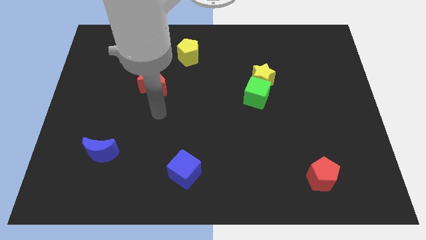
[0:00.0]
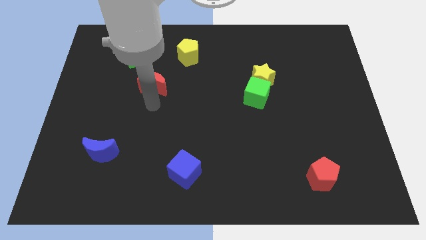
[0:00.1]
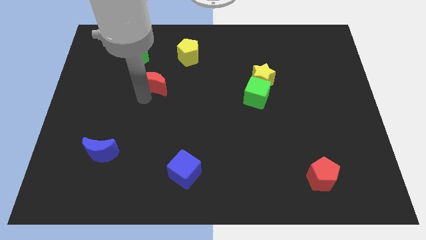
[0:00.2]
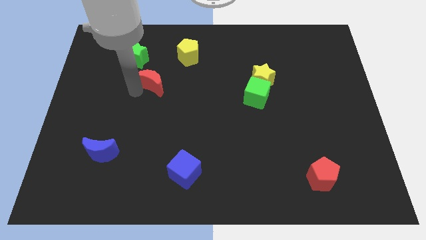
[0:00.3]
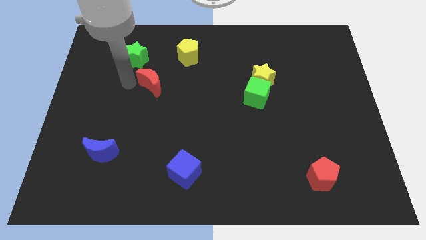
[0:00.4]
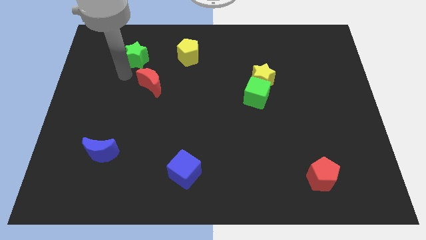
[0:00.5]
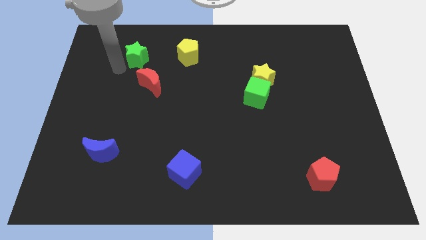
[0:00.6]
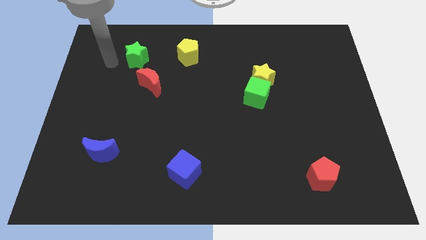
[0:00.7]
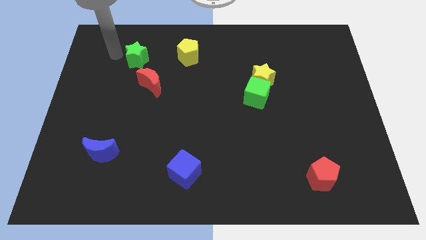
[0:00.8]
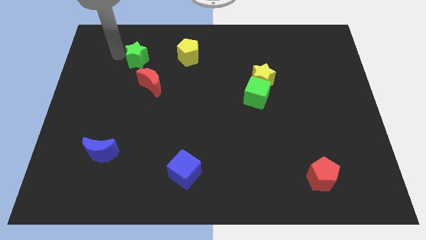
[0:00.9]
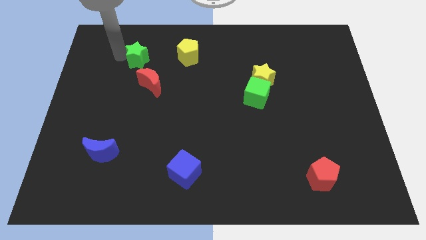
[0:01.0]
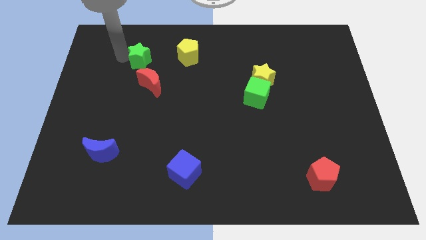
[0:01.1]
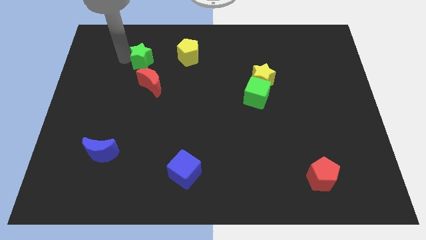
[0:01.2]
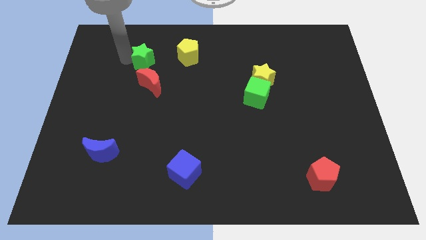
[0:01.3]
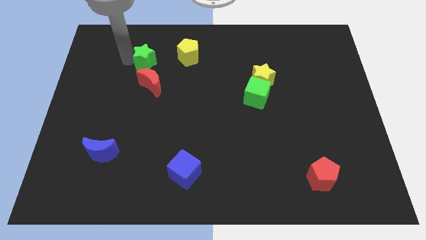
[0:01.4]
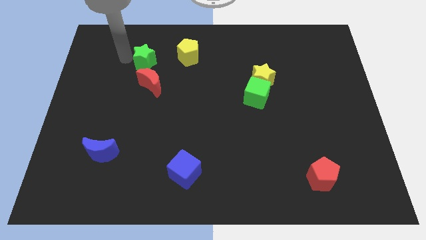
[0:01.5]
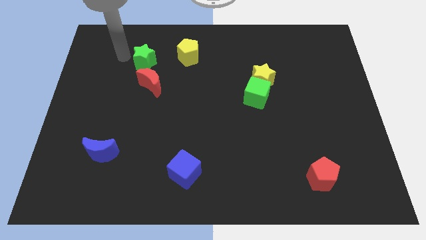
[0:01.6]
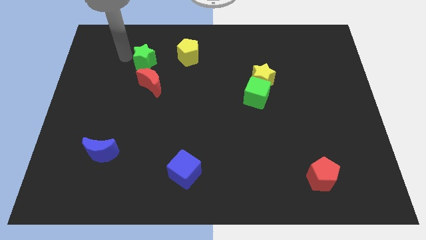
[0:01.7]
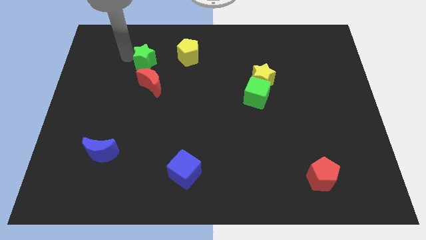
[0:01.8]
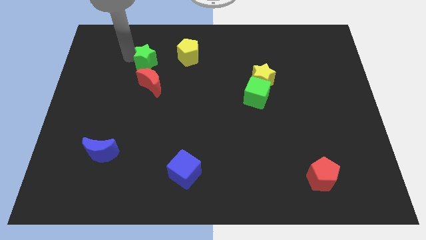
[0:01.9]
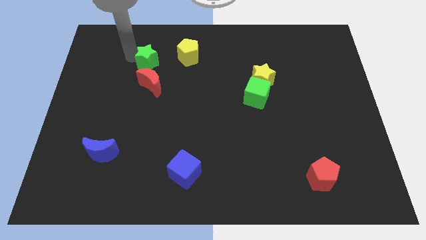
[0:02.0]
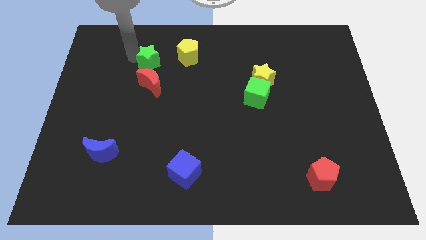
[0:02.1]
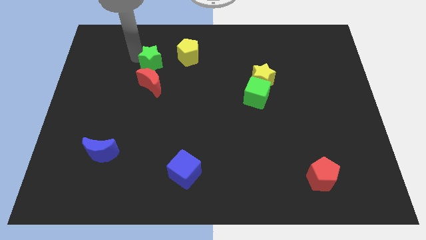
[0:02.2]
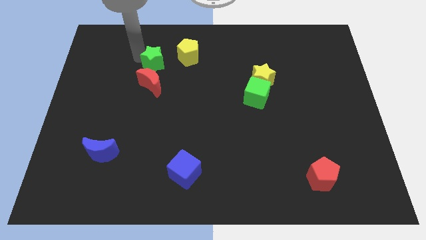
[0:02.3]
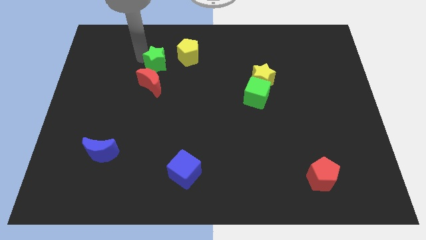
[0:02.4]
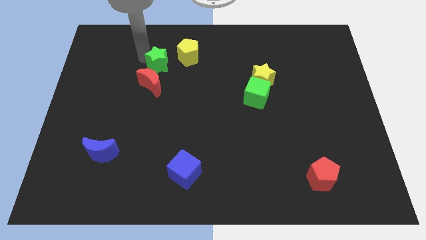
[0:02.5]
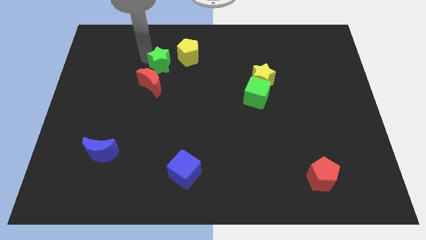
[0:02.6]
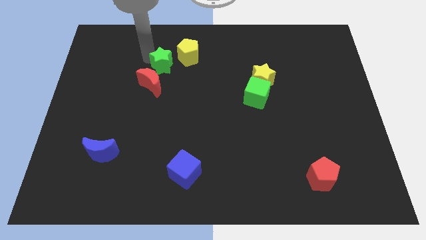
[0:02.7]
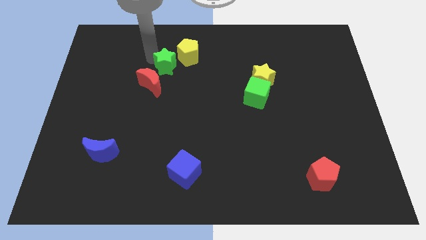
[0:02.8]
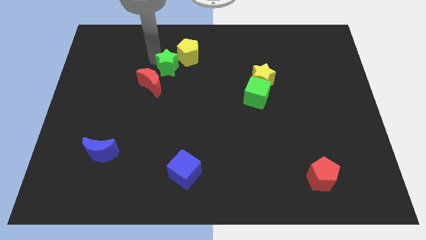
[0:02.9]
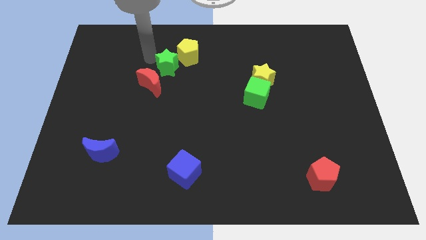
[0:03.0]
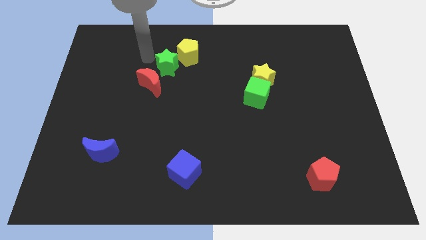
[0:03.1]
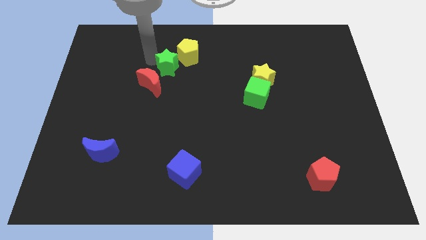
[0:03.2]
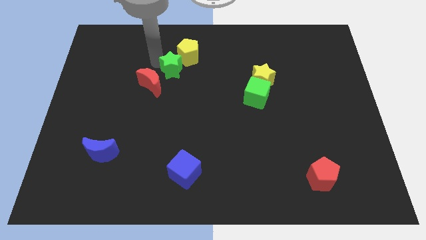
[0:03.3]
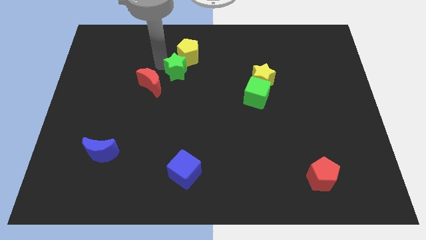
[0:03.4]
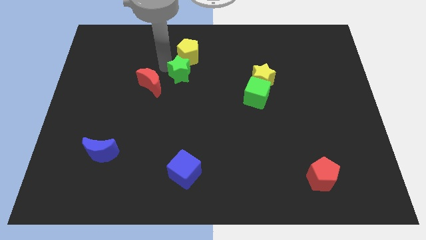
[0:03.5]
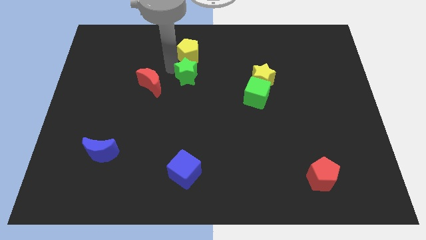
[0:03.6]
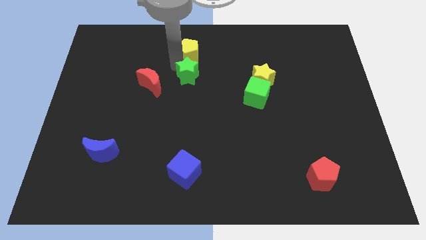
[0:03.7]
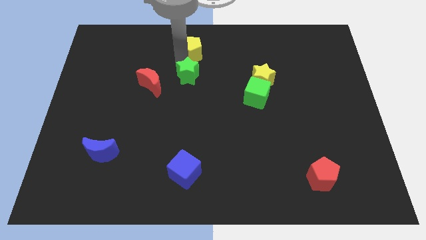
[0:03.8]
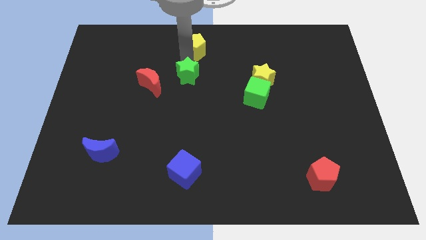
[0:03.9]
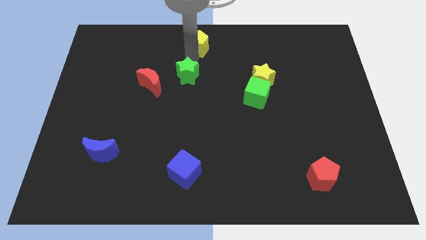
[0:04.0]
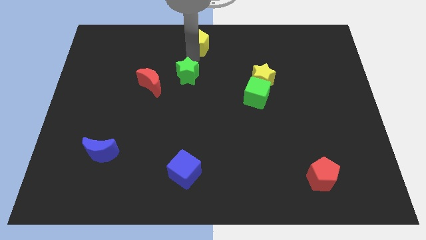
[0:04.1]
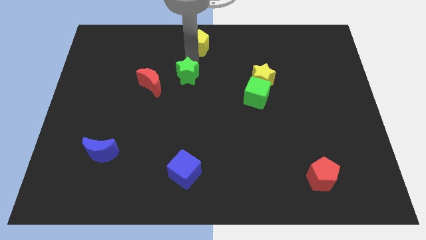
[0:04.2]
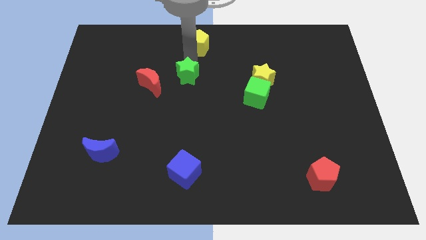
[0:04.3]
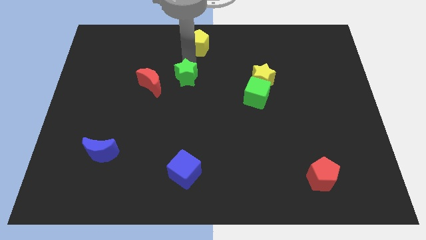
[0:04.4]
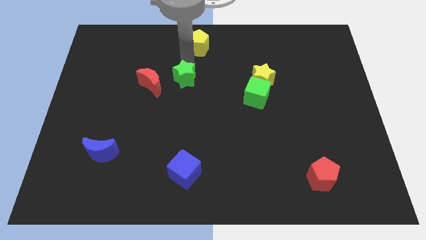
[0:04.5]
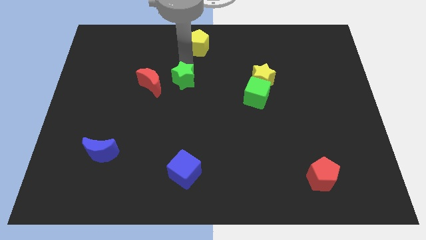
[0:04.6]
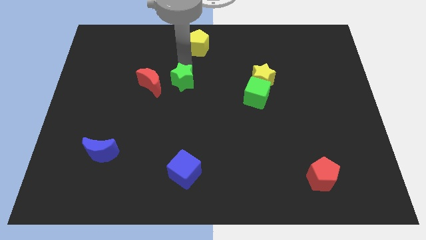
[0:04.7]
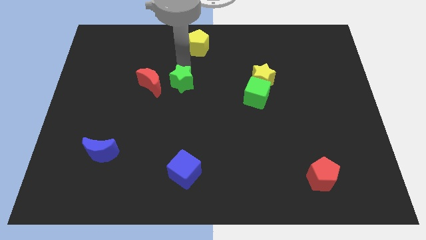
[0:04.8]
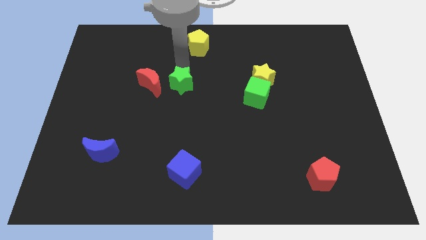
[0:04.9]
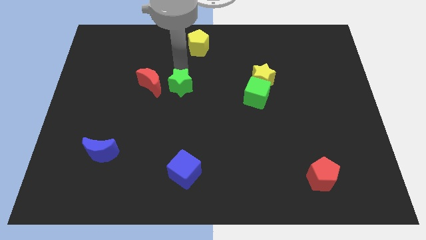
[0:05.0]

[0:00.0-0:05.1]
move the green star diagonally down and to the right of the red moon

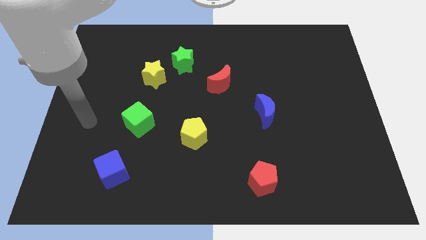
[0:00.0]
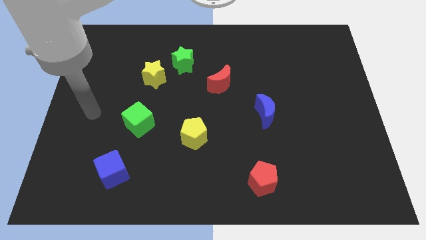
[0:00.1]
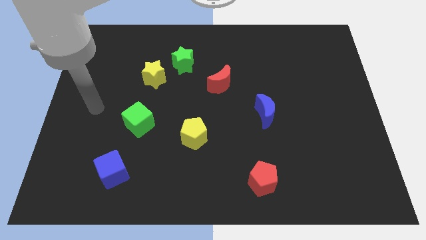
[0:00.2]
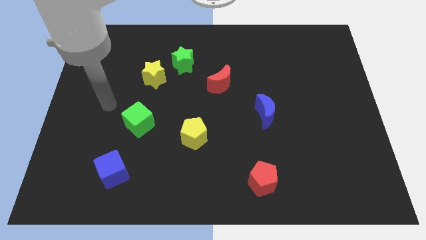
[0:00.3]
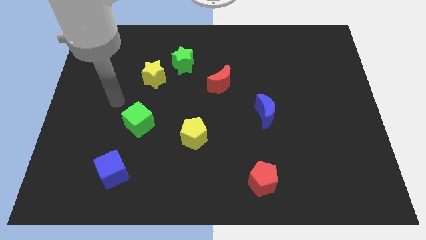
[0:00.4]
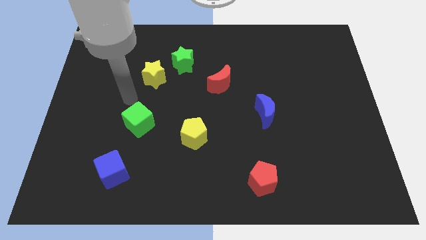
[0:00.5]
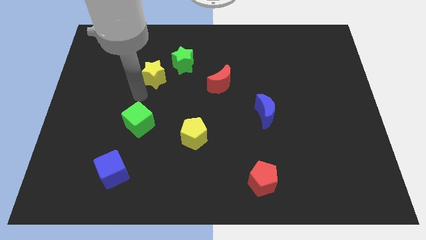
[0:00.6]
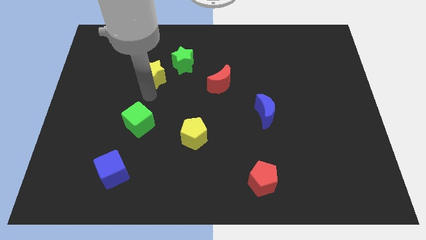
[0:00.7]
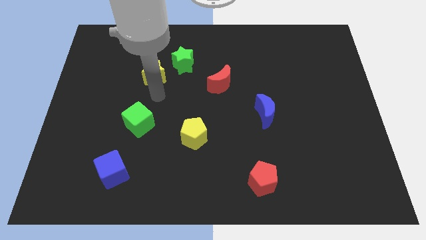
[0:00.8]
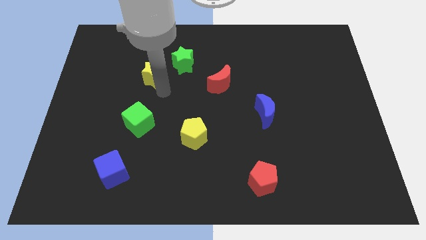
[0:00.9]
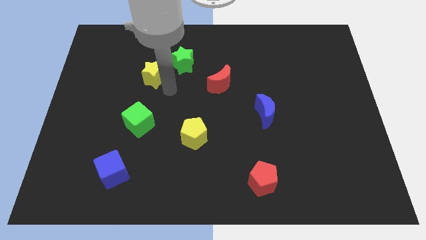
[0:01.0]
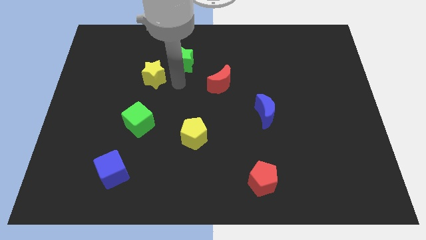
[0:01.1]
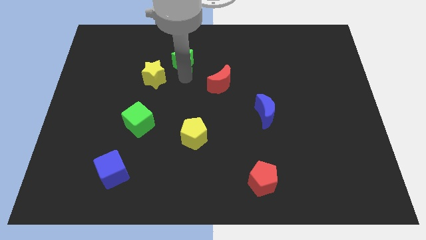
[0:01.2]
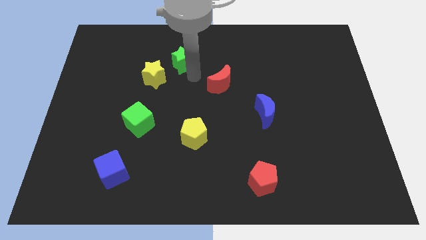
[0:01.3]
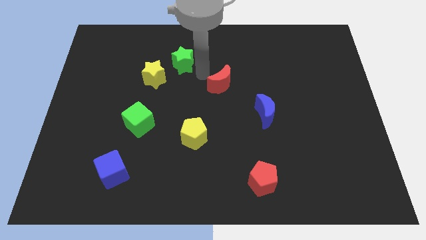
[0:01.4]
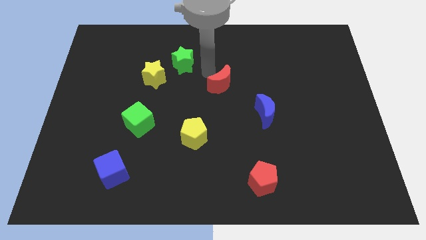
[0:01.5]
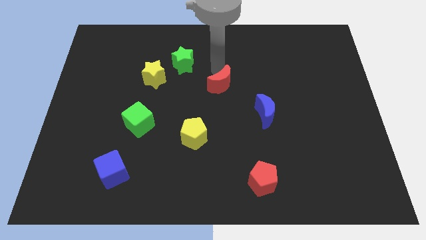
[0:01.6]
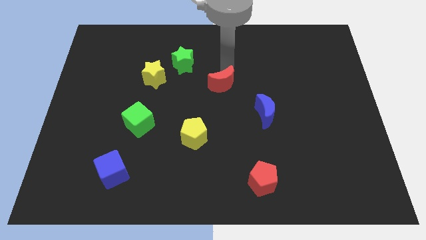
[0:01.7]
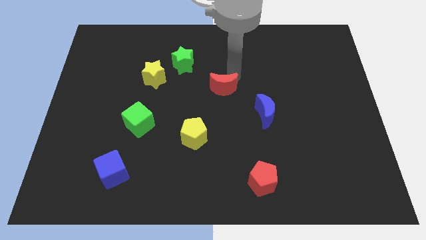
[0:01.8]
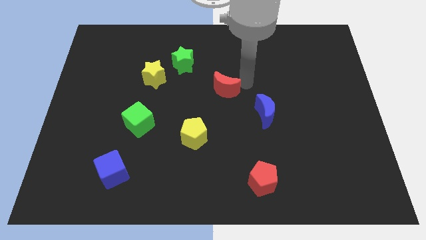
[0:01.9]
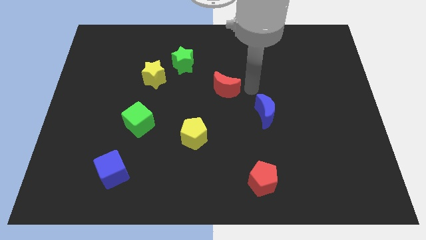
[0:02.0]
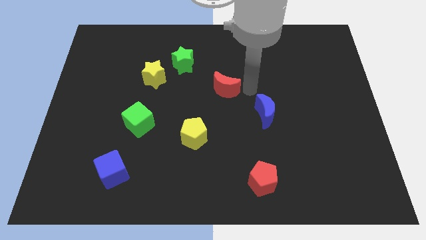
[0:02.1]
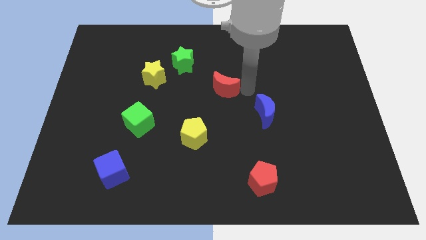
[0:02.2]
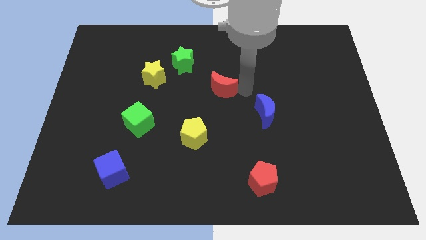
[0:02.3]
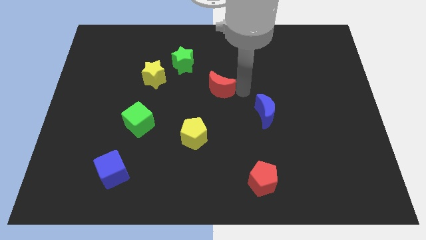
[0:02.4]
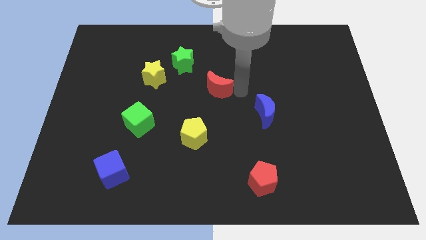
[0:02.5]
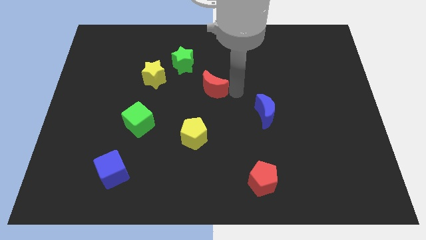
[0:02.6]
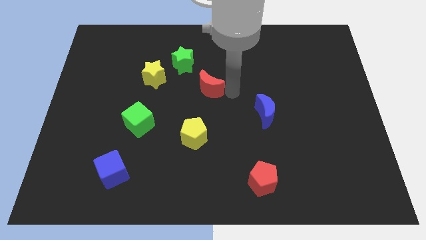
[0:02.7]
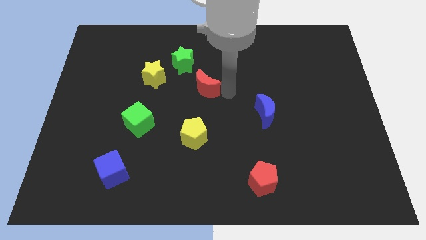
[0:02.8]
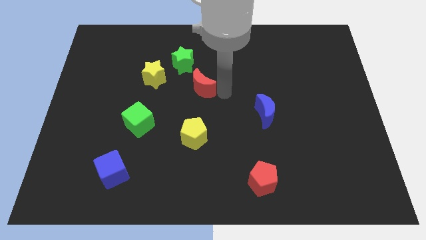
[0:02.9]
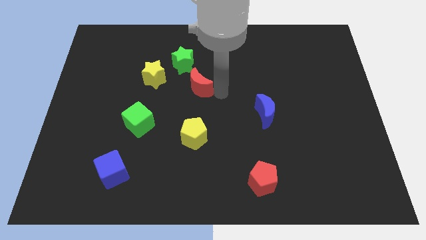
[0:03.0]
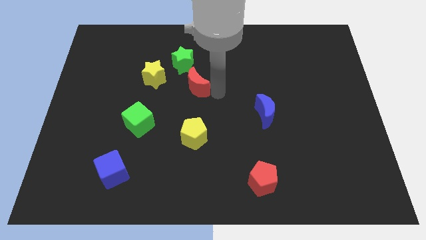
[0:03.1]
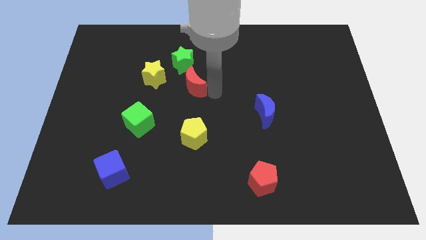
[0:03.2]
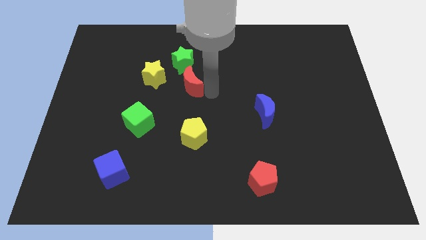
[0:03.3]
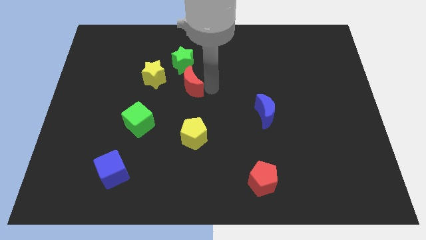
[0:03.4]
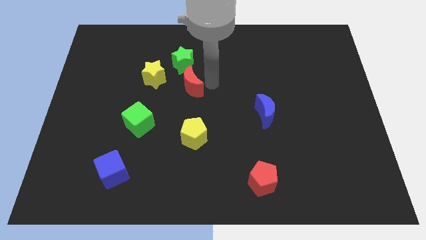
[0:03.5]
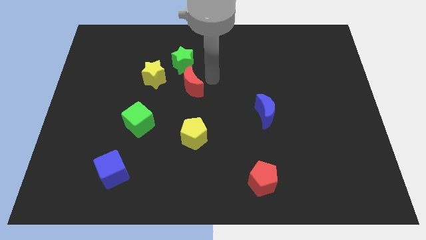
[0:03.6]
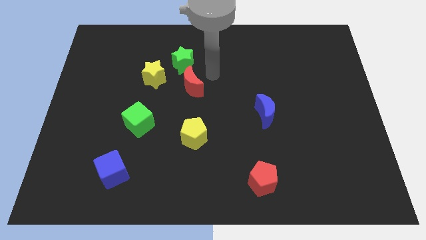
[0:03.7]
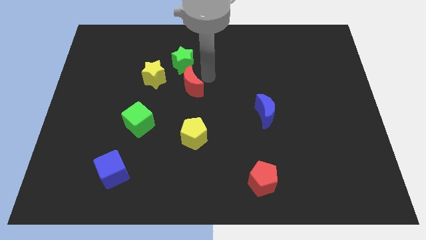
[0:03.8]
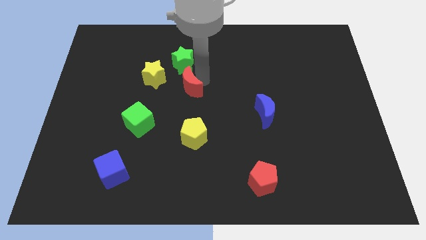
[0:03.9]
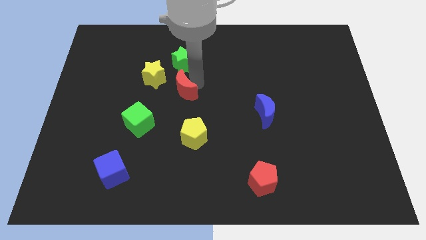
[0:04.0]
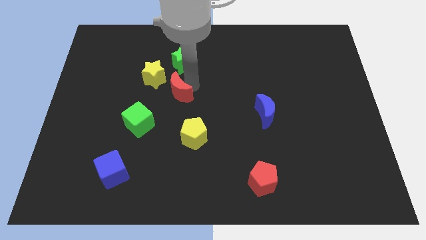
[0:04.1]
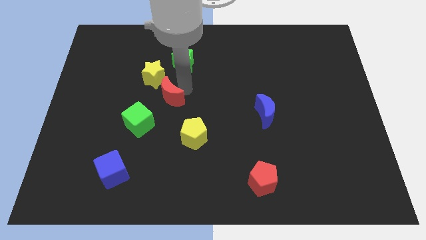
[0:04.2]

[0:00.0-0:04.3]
push the red moon below the yellow star
